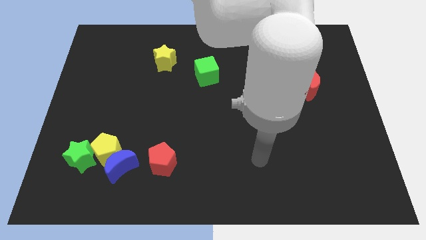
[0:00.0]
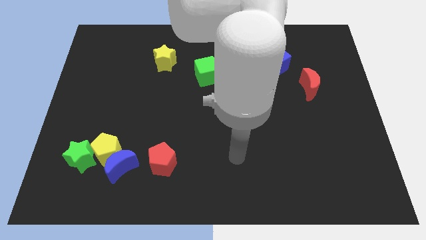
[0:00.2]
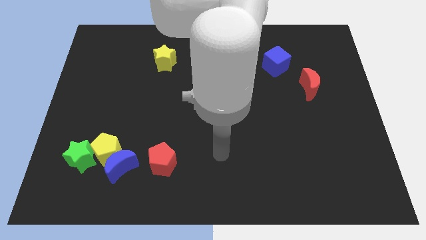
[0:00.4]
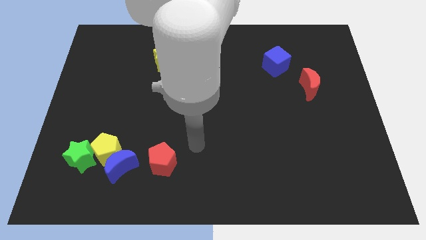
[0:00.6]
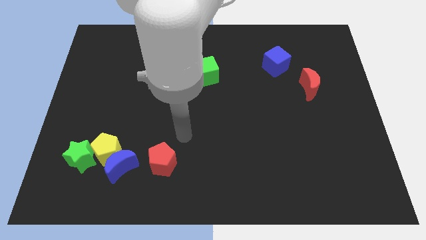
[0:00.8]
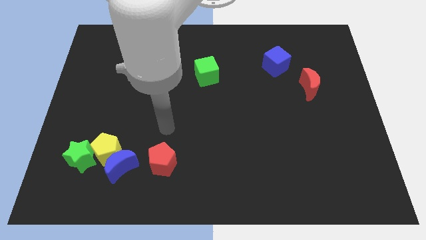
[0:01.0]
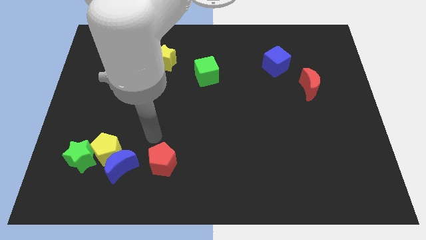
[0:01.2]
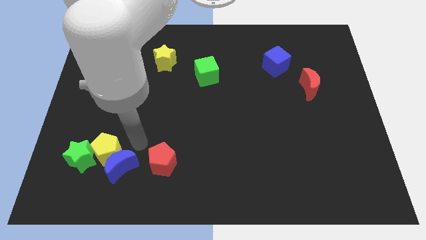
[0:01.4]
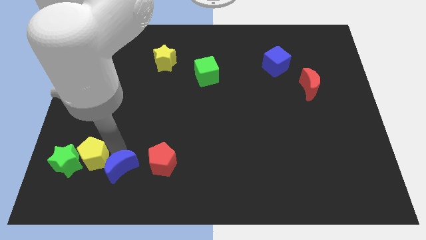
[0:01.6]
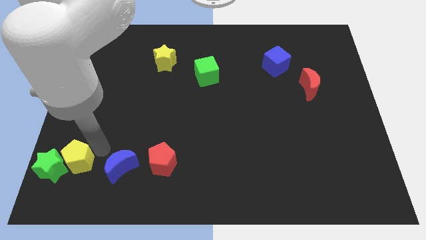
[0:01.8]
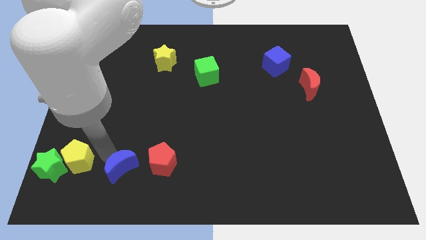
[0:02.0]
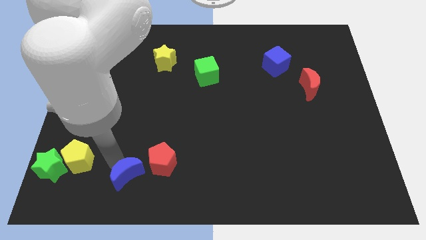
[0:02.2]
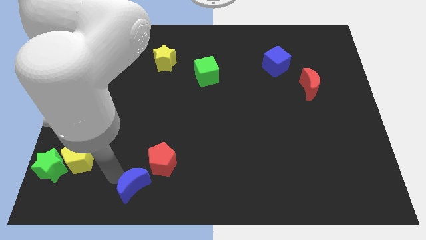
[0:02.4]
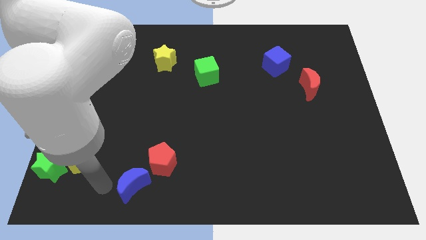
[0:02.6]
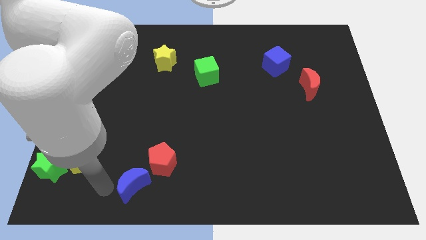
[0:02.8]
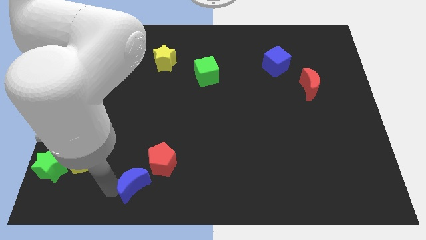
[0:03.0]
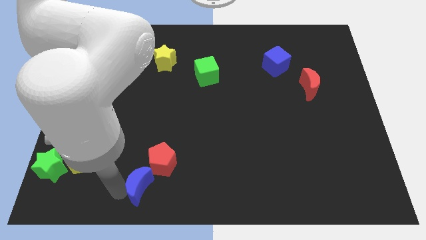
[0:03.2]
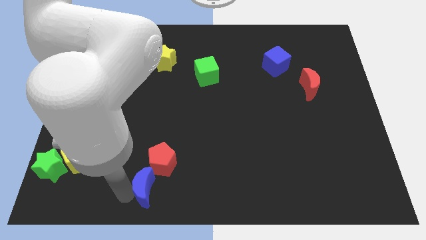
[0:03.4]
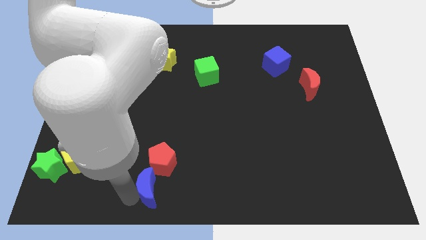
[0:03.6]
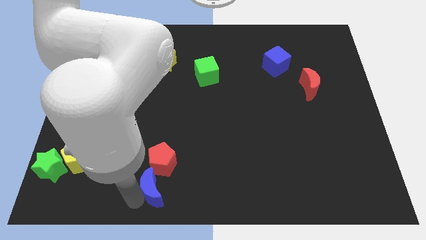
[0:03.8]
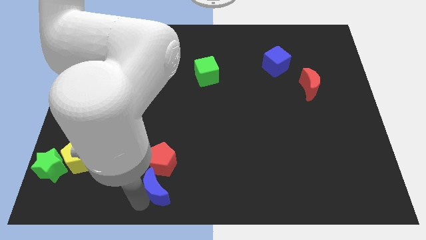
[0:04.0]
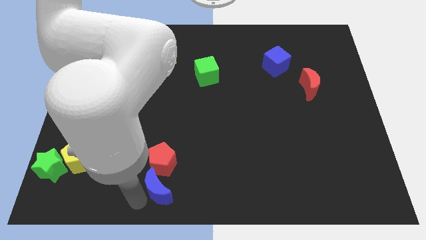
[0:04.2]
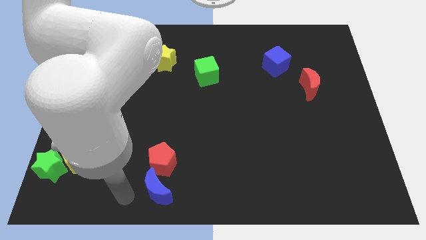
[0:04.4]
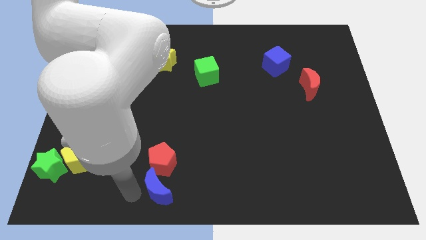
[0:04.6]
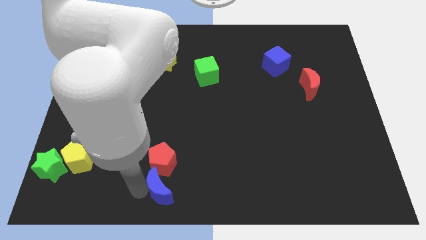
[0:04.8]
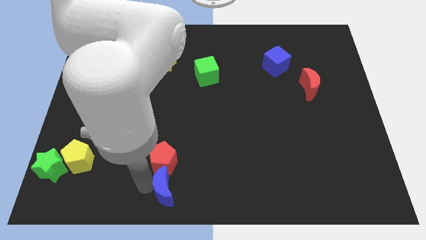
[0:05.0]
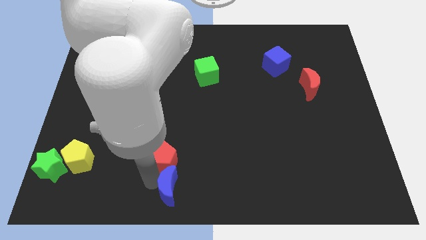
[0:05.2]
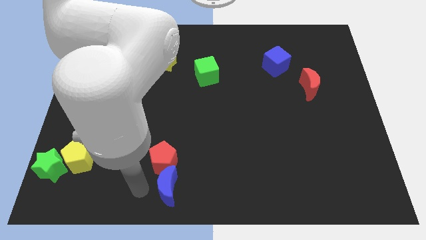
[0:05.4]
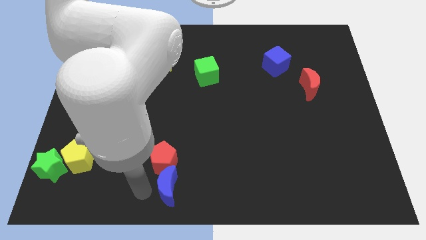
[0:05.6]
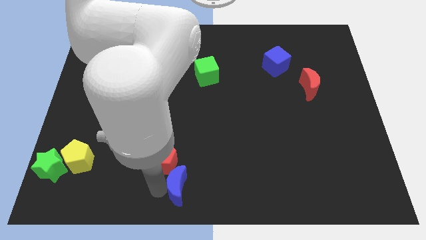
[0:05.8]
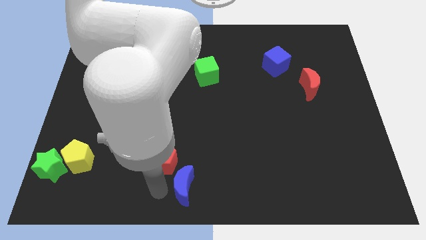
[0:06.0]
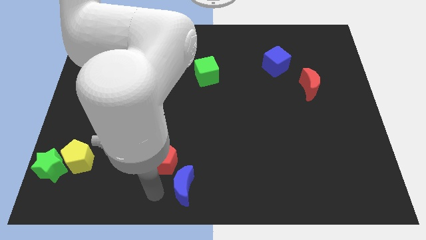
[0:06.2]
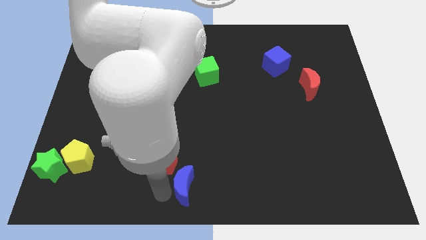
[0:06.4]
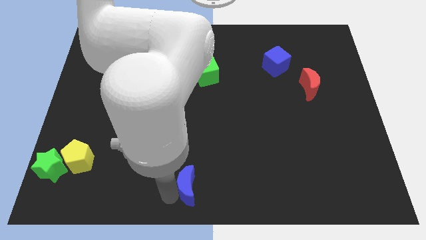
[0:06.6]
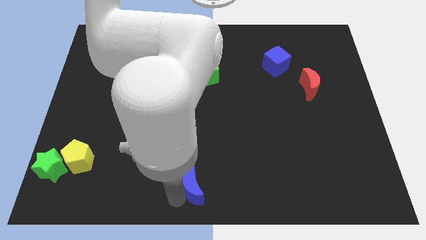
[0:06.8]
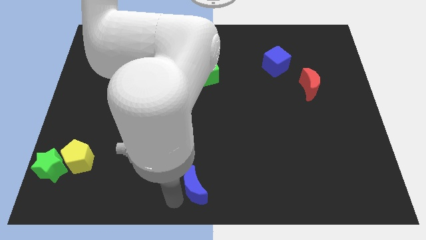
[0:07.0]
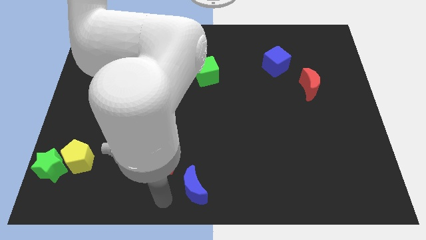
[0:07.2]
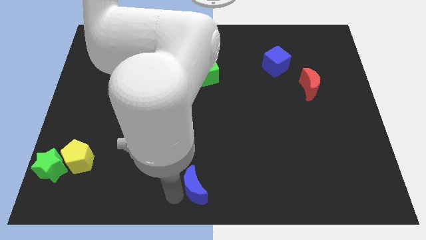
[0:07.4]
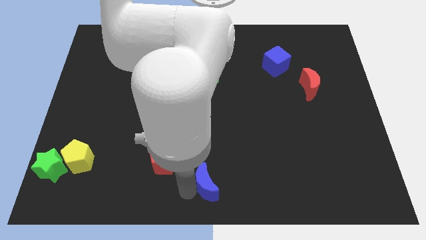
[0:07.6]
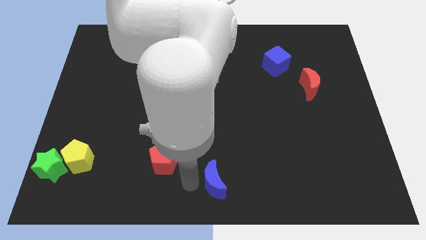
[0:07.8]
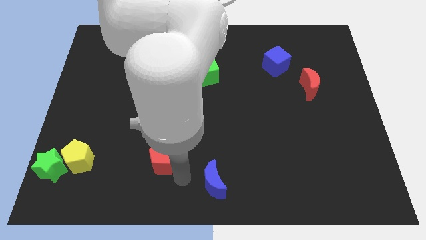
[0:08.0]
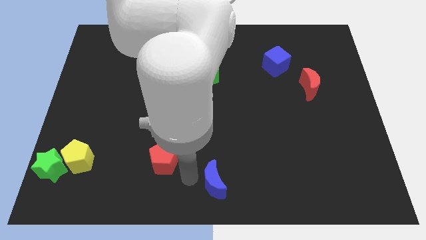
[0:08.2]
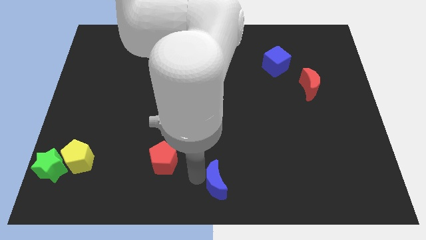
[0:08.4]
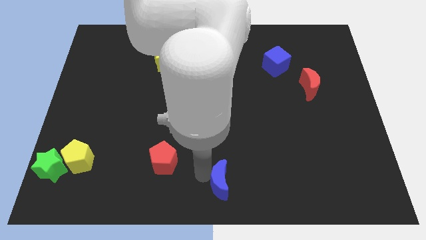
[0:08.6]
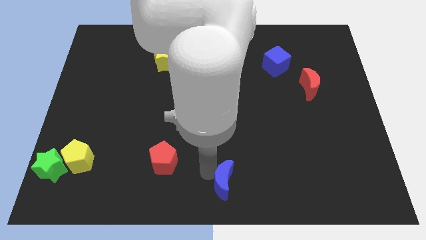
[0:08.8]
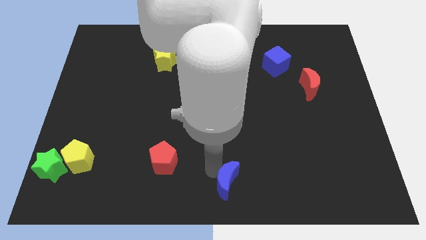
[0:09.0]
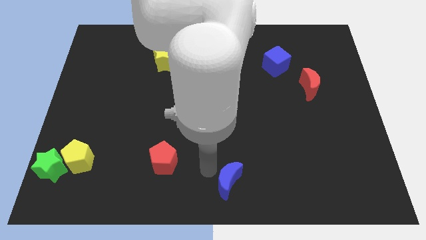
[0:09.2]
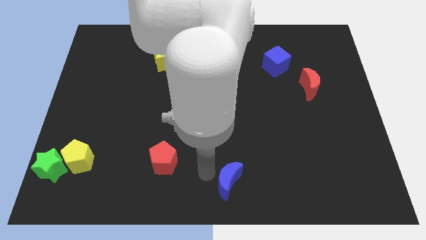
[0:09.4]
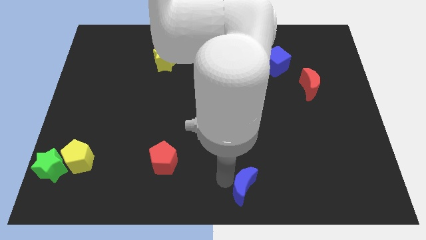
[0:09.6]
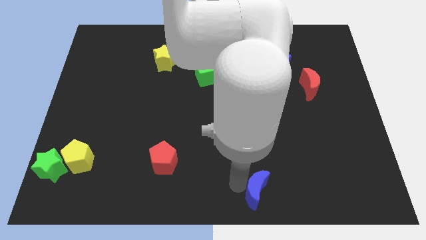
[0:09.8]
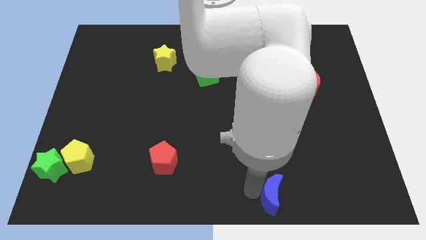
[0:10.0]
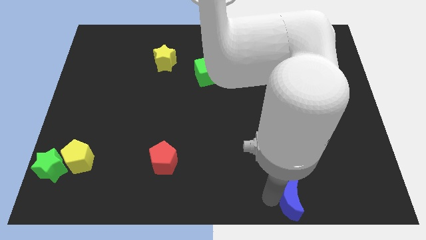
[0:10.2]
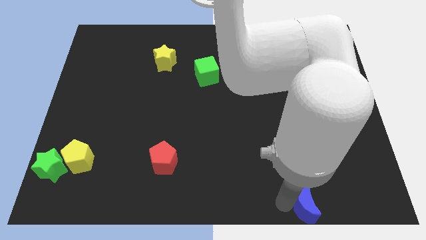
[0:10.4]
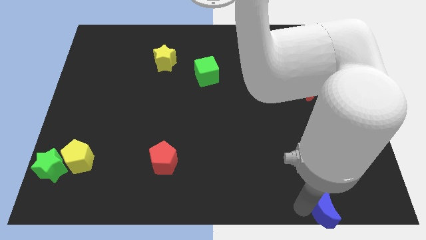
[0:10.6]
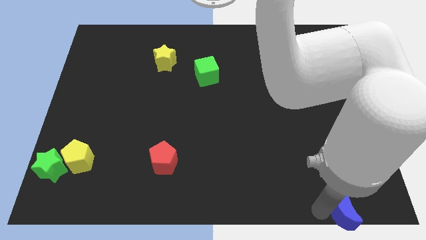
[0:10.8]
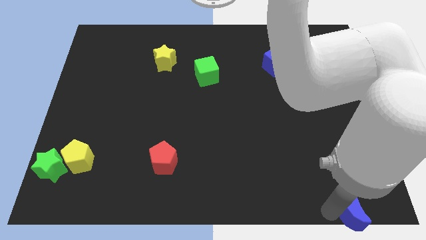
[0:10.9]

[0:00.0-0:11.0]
slide the blue moon to the bottom right of the board

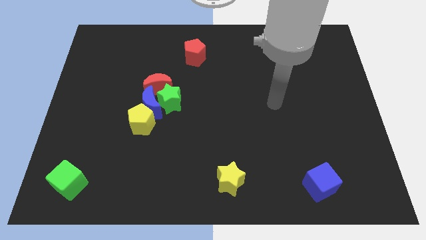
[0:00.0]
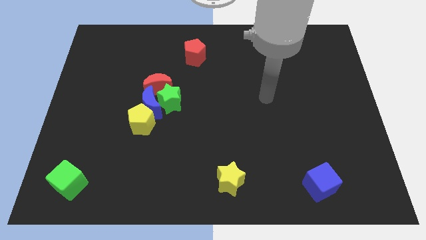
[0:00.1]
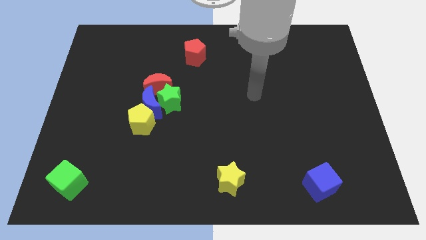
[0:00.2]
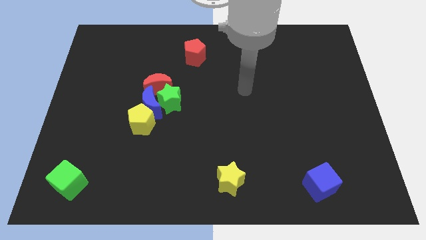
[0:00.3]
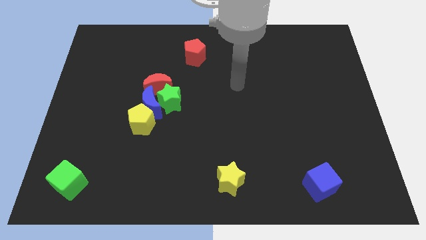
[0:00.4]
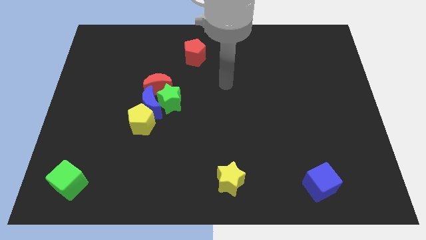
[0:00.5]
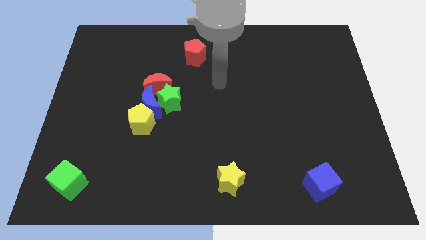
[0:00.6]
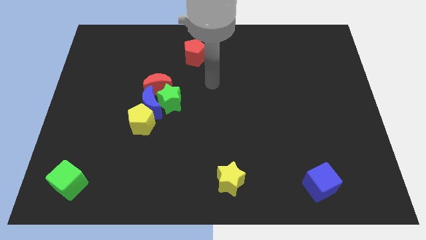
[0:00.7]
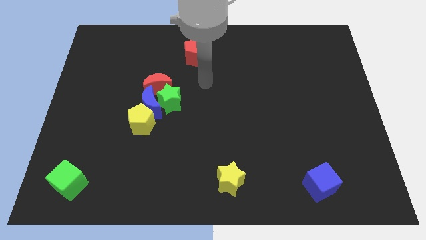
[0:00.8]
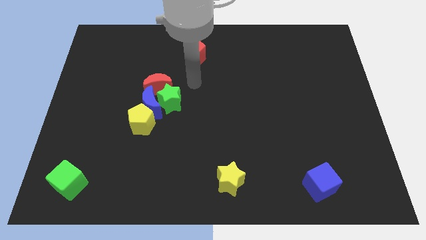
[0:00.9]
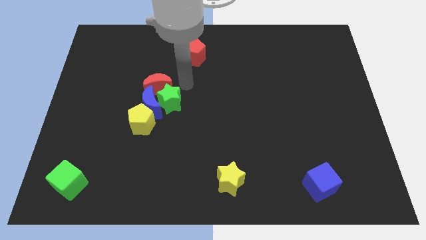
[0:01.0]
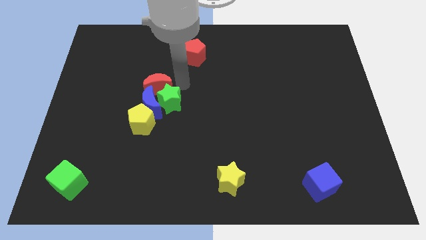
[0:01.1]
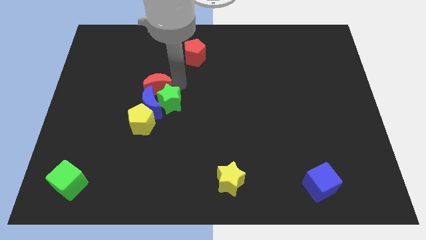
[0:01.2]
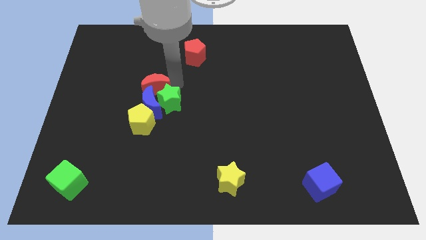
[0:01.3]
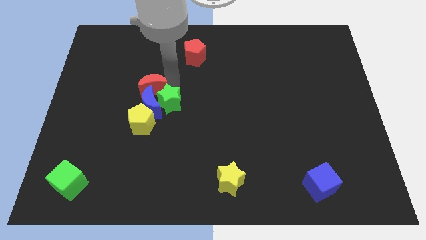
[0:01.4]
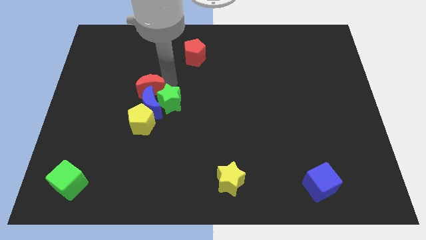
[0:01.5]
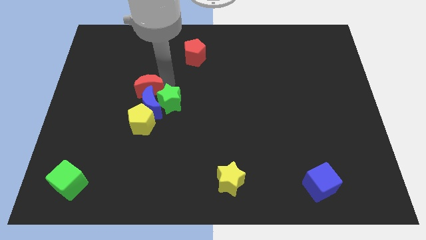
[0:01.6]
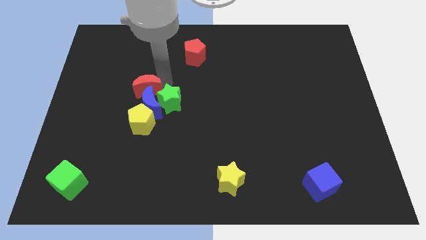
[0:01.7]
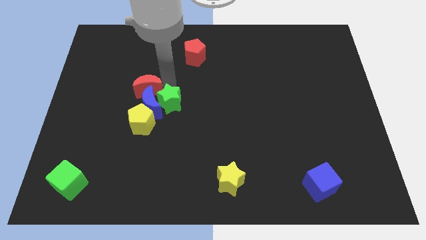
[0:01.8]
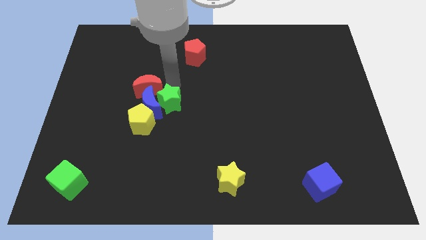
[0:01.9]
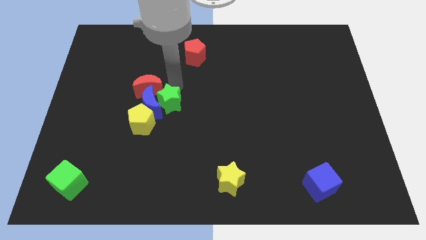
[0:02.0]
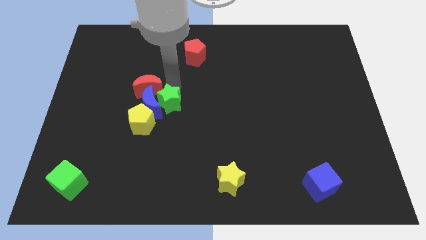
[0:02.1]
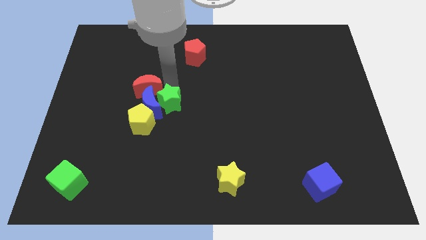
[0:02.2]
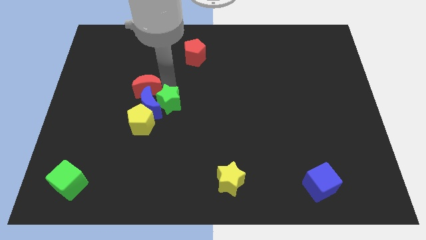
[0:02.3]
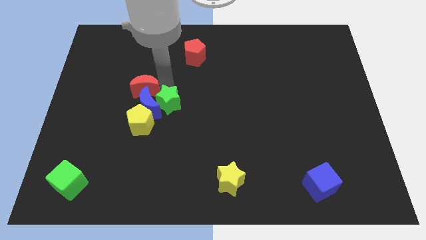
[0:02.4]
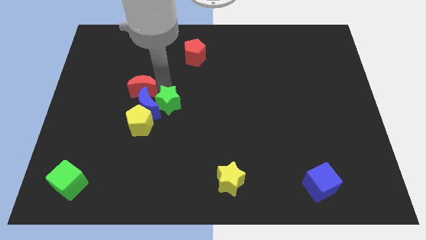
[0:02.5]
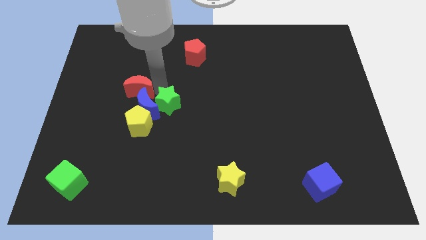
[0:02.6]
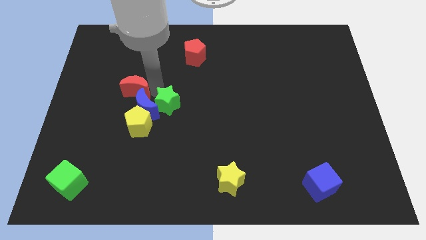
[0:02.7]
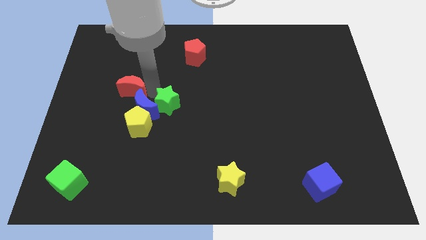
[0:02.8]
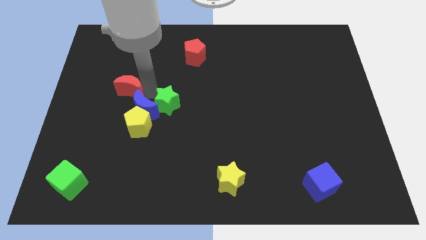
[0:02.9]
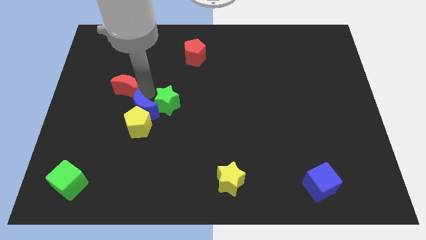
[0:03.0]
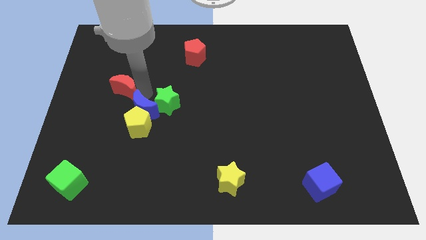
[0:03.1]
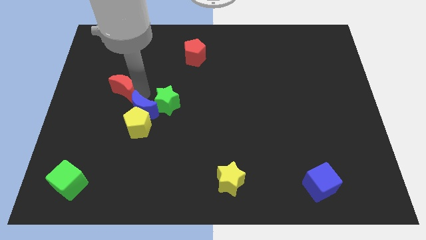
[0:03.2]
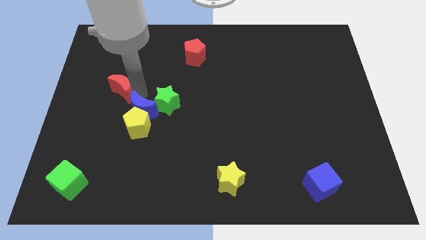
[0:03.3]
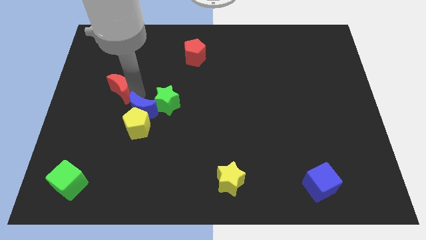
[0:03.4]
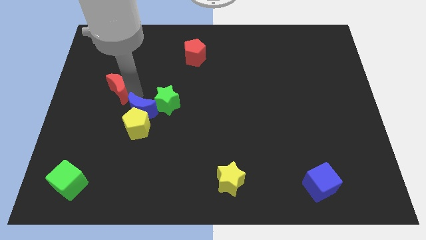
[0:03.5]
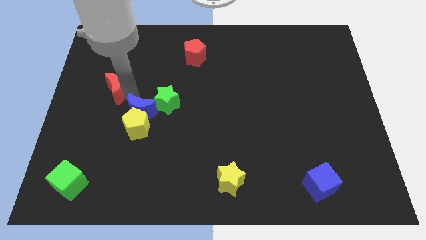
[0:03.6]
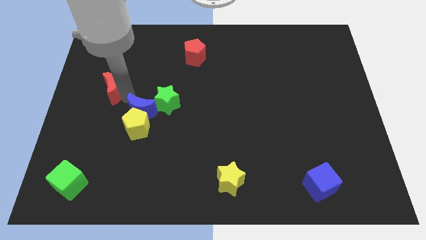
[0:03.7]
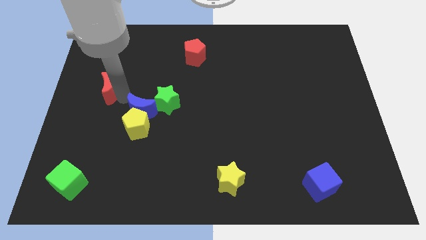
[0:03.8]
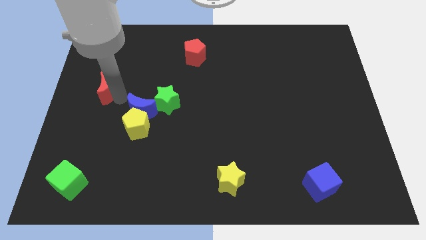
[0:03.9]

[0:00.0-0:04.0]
slide the red moon to the center left
